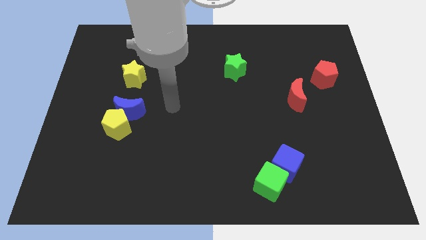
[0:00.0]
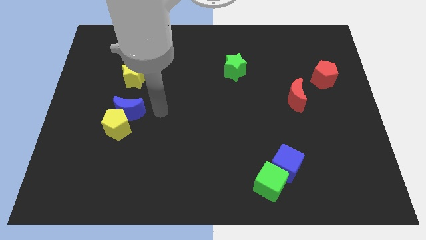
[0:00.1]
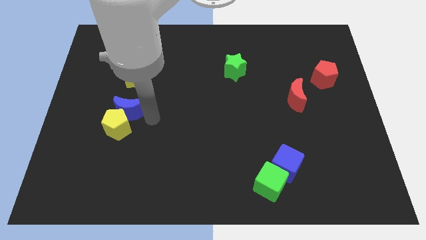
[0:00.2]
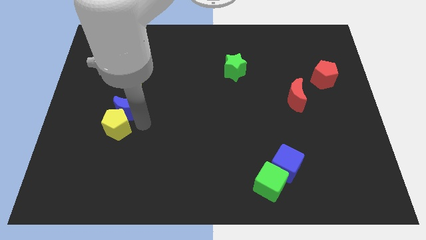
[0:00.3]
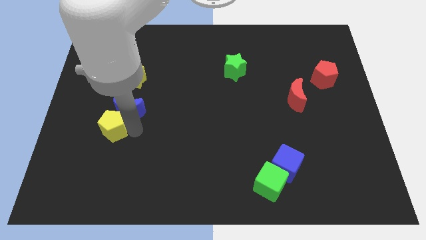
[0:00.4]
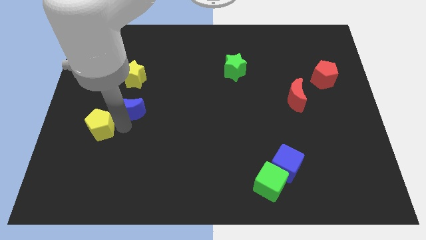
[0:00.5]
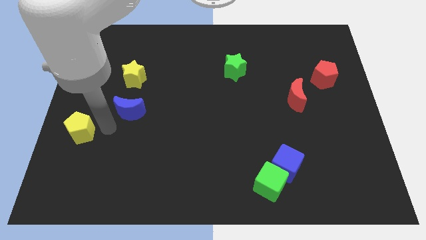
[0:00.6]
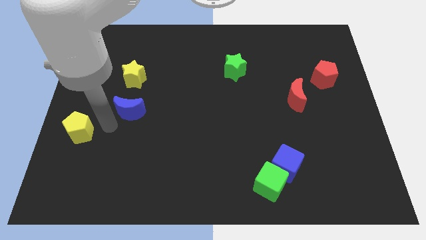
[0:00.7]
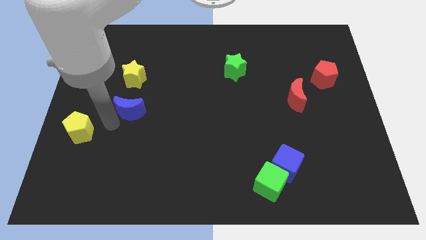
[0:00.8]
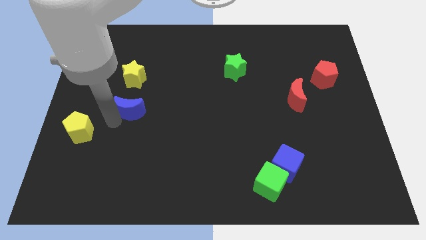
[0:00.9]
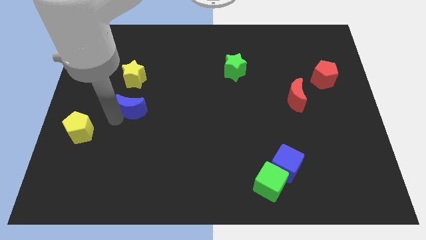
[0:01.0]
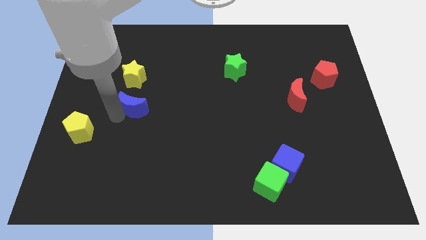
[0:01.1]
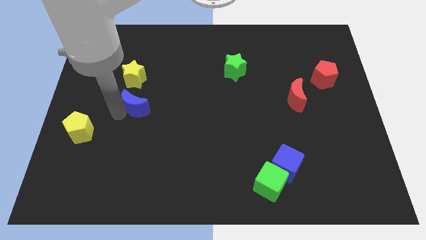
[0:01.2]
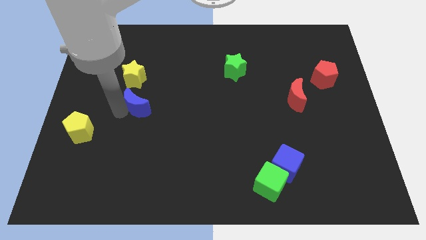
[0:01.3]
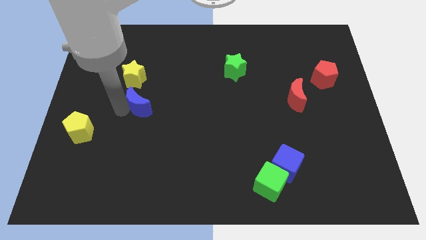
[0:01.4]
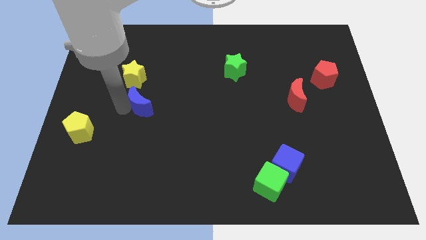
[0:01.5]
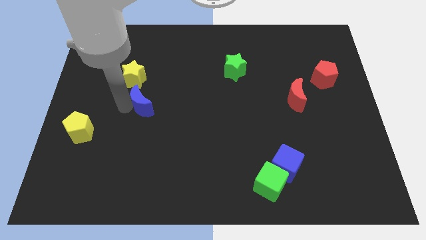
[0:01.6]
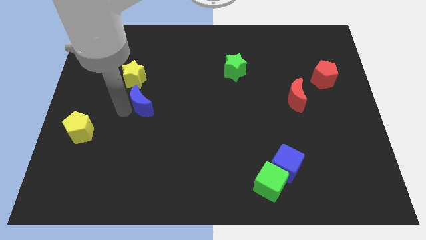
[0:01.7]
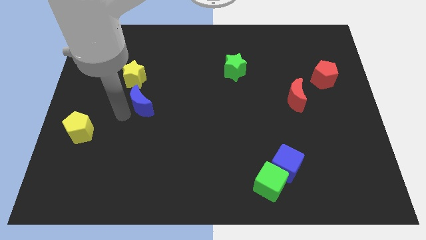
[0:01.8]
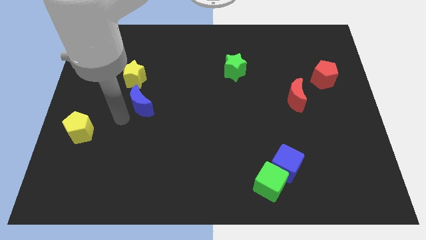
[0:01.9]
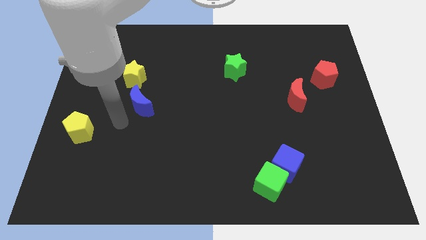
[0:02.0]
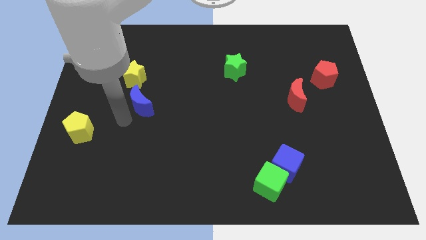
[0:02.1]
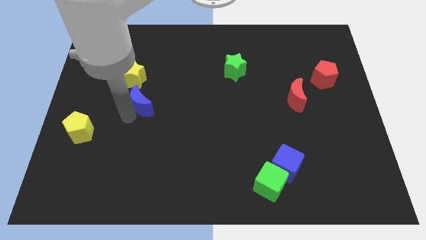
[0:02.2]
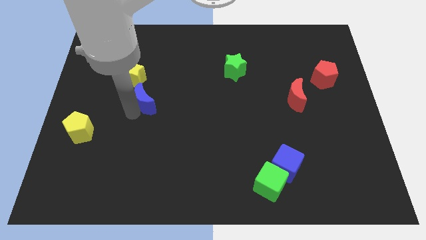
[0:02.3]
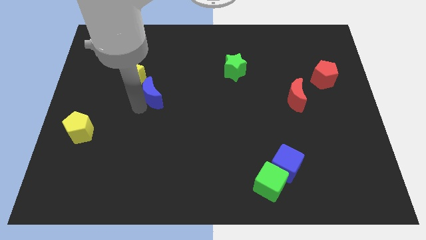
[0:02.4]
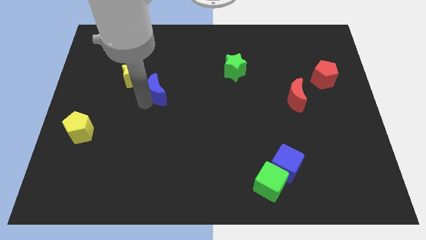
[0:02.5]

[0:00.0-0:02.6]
slide the blue moon a bit upwards and to the right

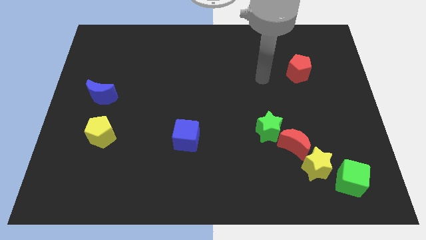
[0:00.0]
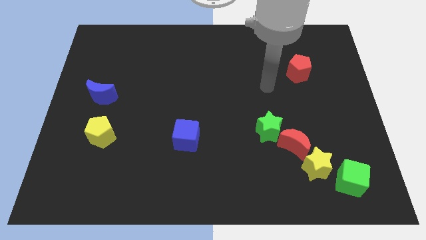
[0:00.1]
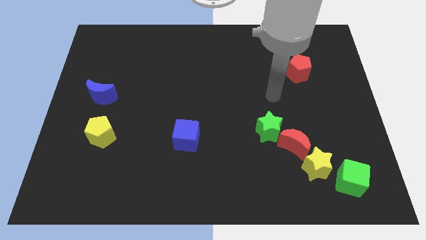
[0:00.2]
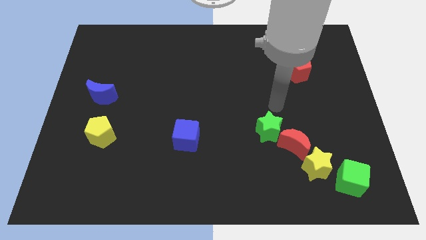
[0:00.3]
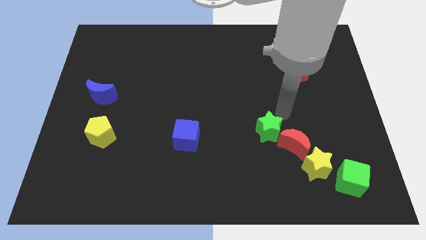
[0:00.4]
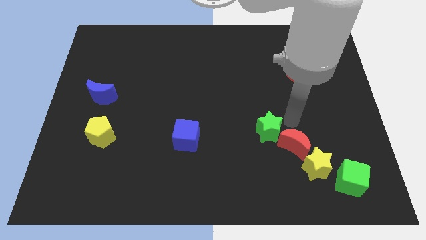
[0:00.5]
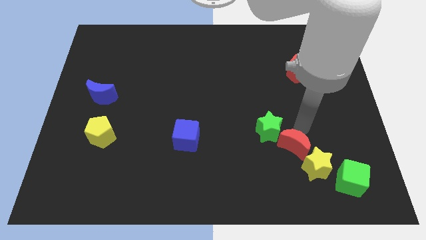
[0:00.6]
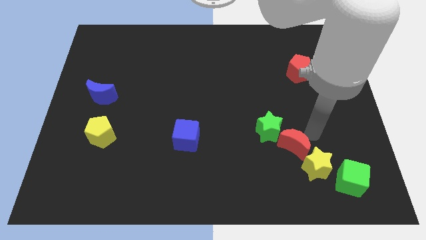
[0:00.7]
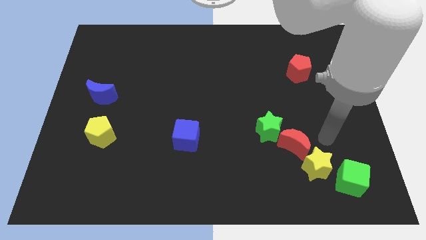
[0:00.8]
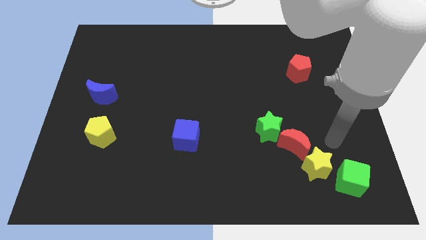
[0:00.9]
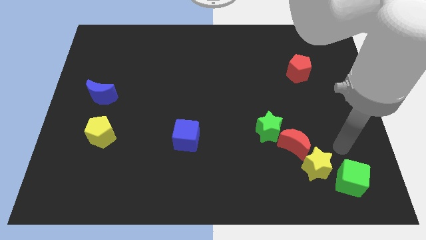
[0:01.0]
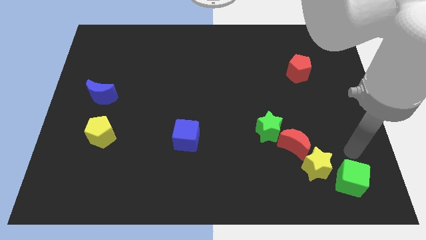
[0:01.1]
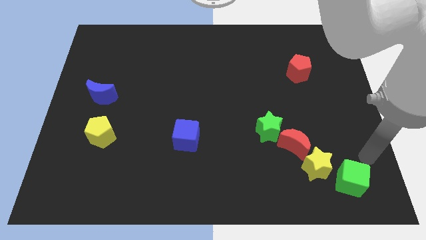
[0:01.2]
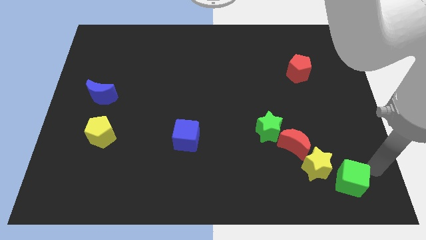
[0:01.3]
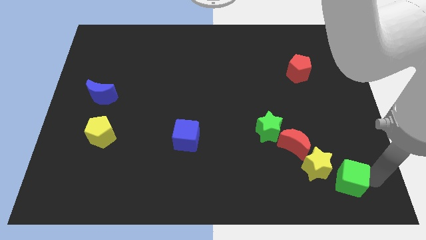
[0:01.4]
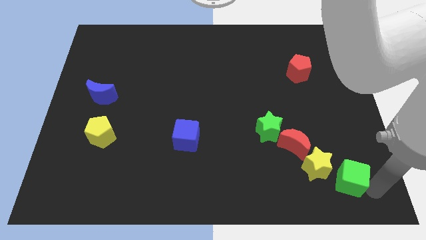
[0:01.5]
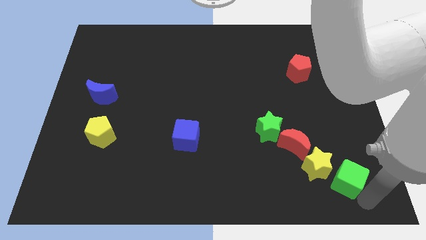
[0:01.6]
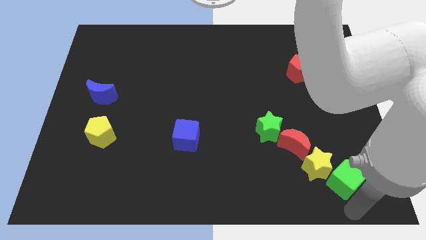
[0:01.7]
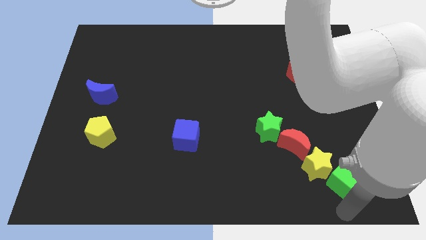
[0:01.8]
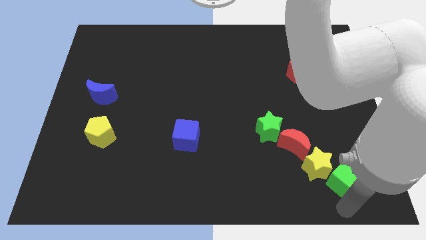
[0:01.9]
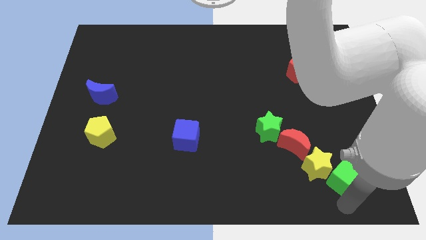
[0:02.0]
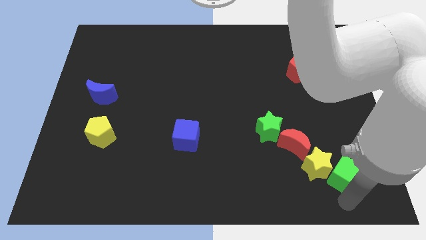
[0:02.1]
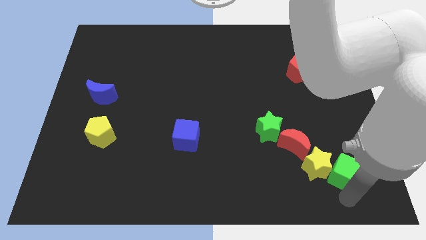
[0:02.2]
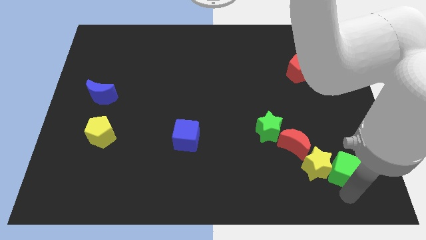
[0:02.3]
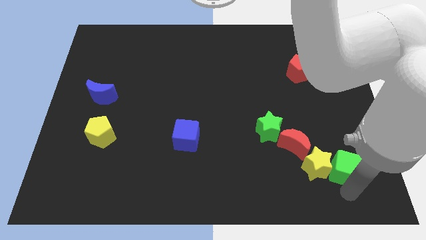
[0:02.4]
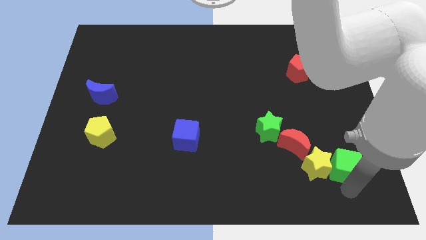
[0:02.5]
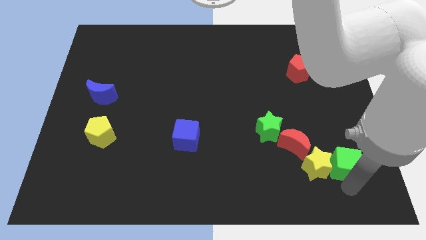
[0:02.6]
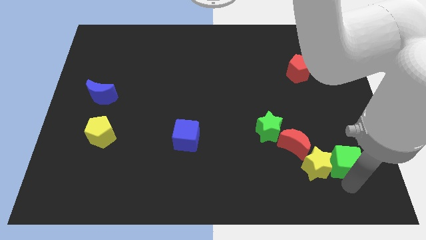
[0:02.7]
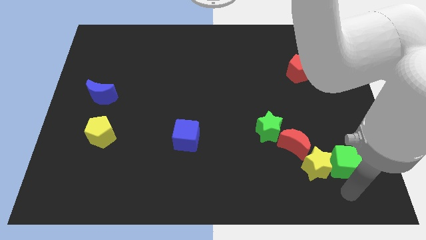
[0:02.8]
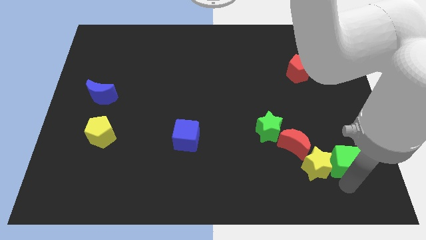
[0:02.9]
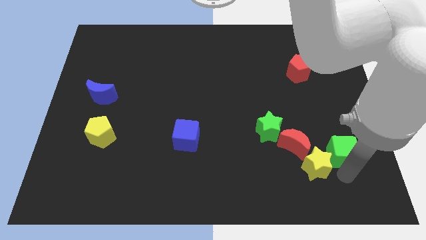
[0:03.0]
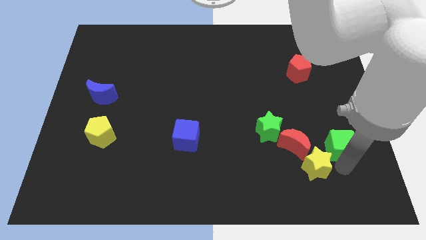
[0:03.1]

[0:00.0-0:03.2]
slide the green cube upwards a little

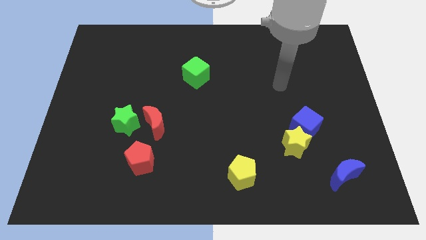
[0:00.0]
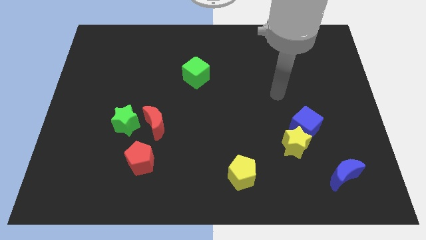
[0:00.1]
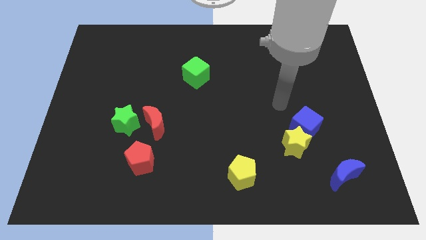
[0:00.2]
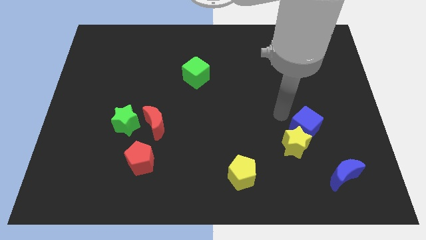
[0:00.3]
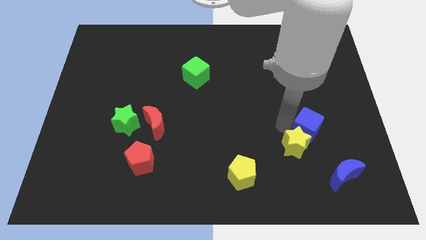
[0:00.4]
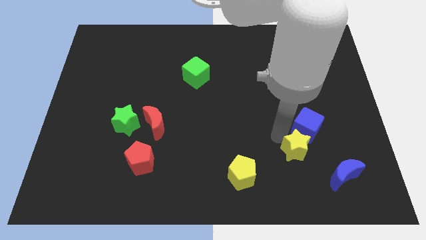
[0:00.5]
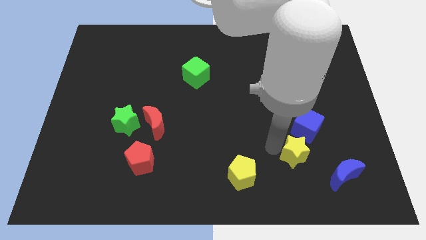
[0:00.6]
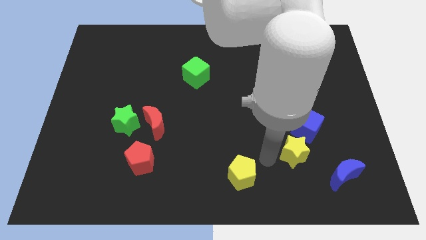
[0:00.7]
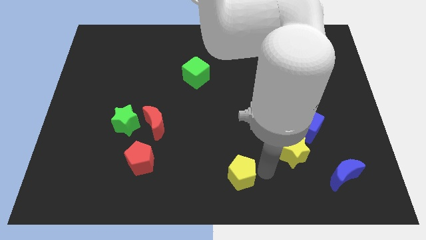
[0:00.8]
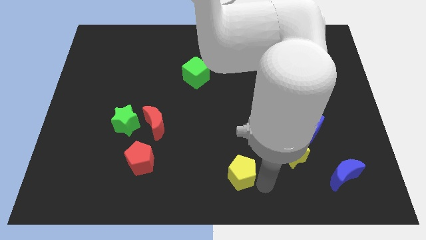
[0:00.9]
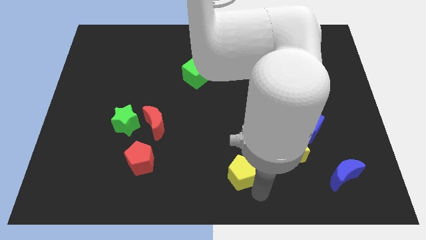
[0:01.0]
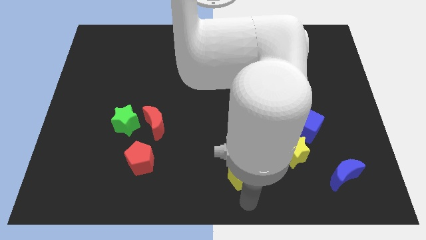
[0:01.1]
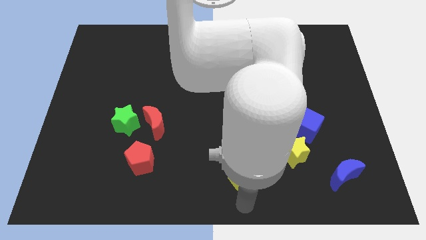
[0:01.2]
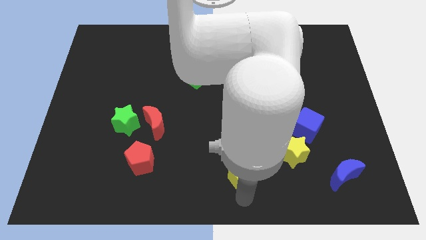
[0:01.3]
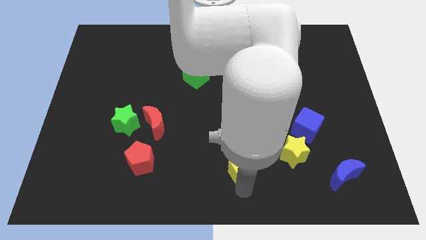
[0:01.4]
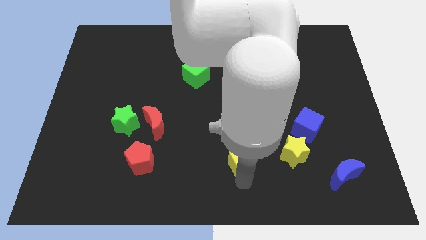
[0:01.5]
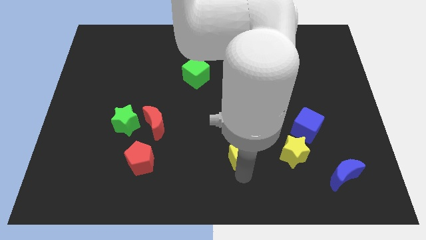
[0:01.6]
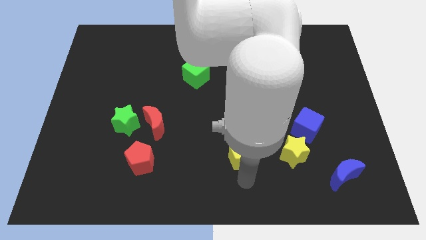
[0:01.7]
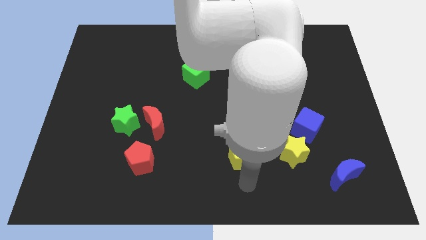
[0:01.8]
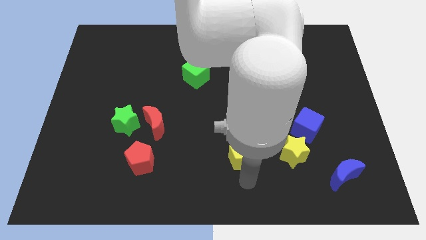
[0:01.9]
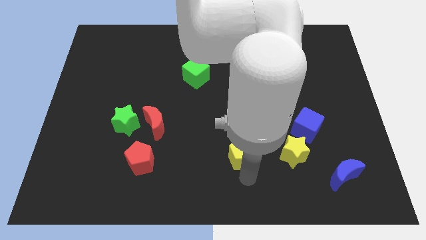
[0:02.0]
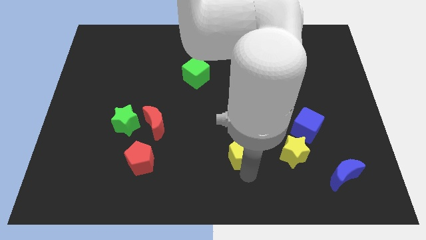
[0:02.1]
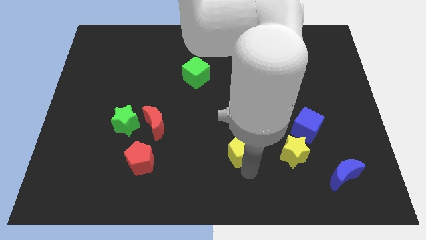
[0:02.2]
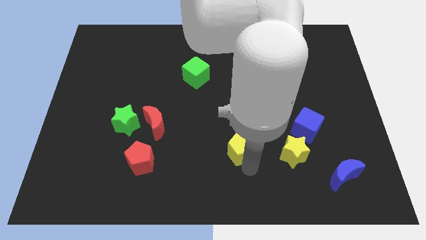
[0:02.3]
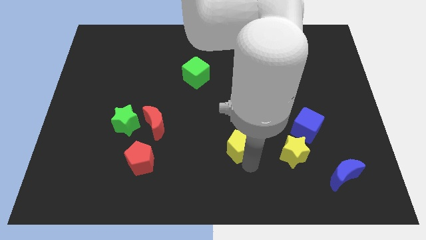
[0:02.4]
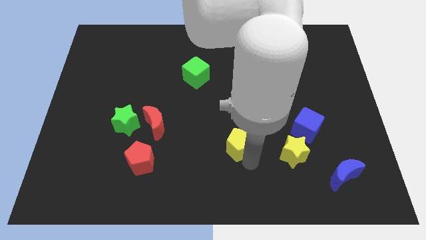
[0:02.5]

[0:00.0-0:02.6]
push the yellow pentagon upwards a little
